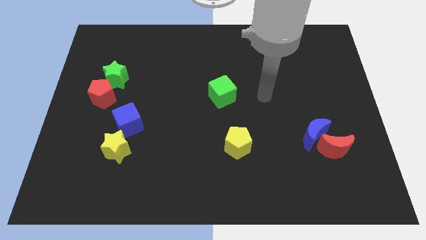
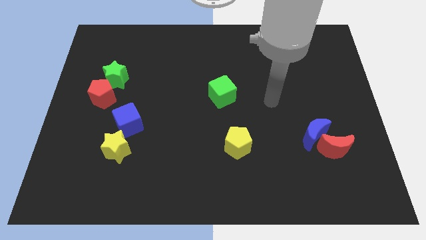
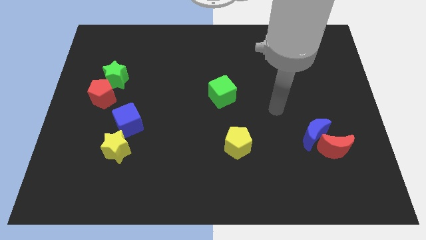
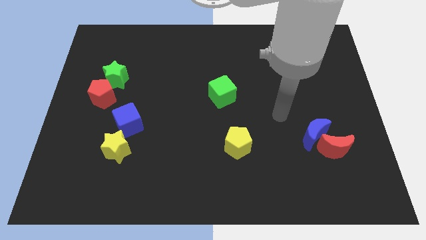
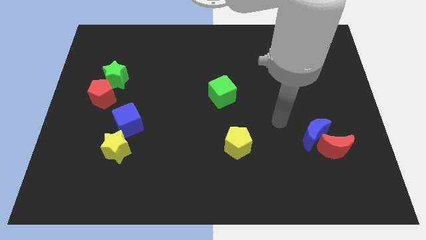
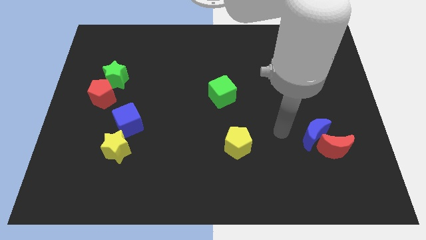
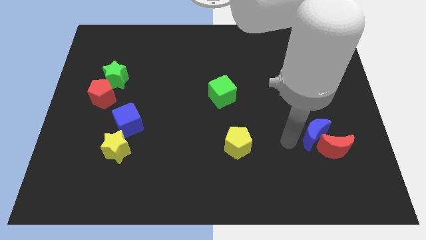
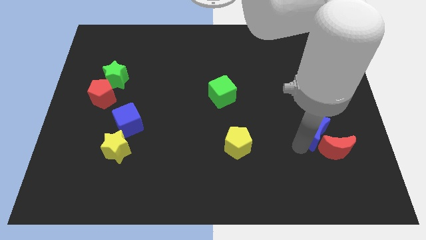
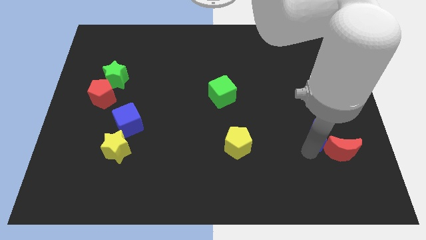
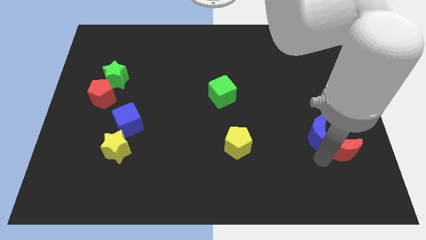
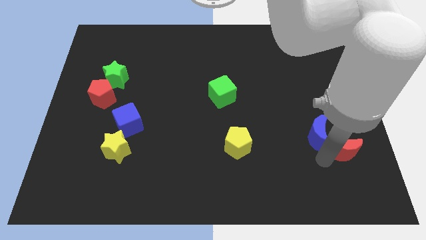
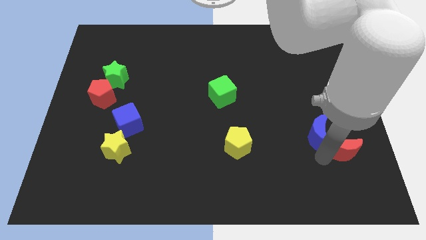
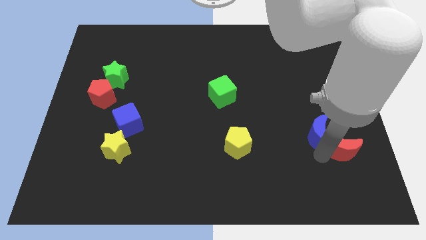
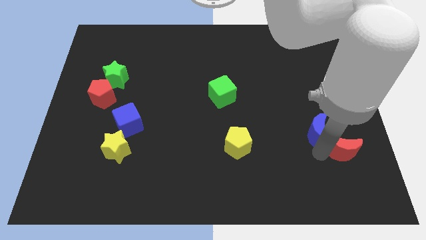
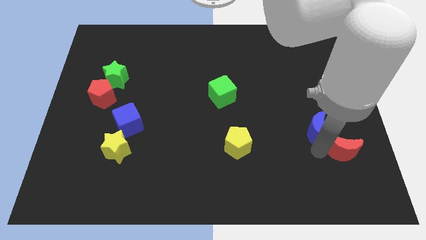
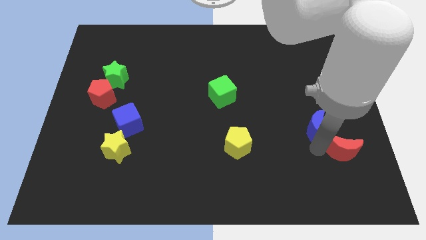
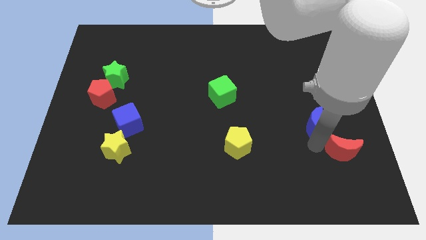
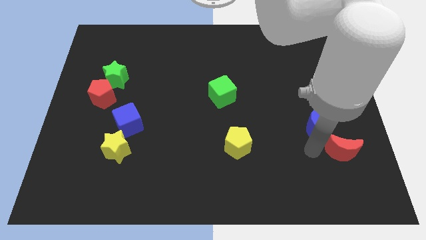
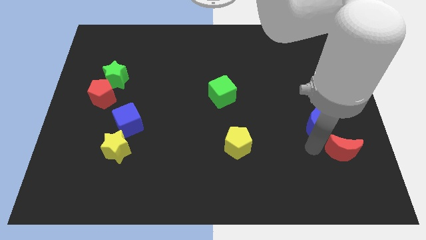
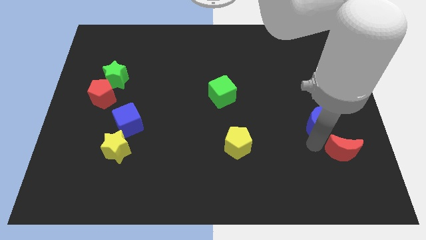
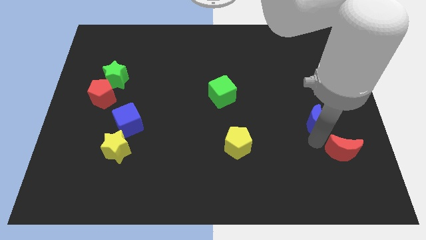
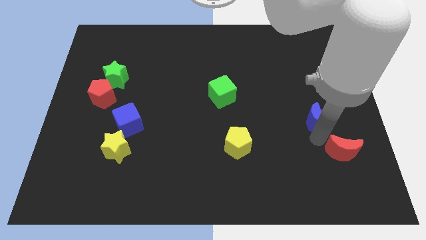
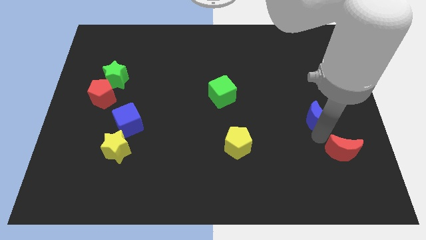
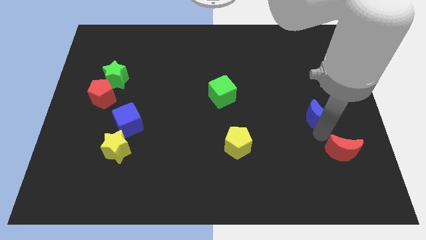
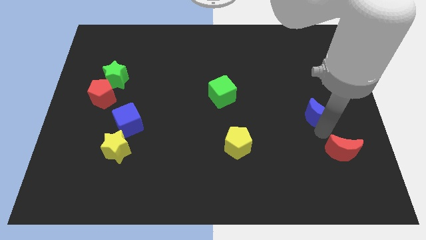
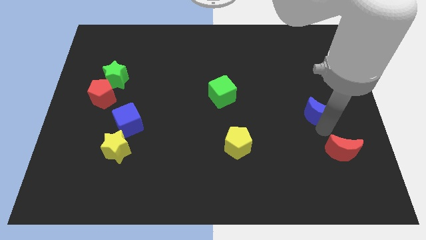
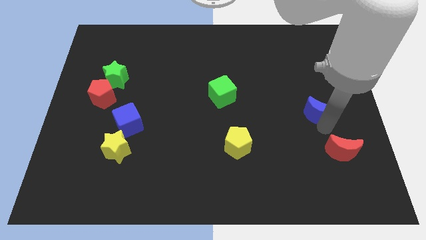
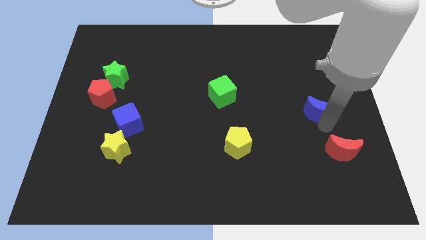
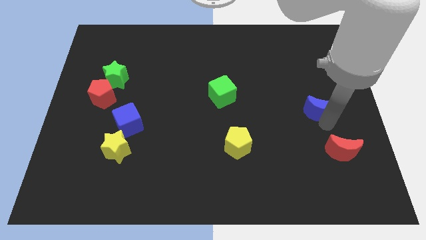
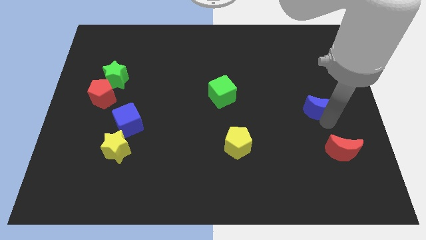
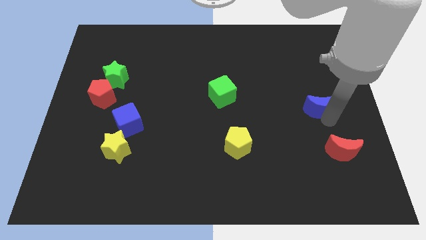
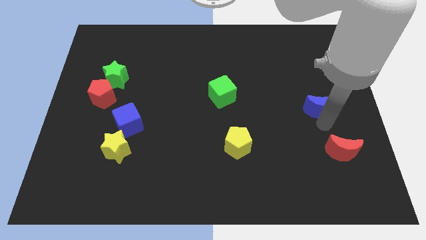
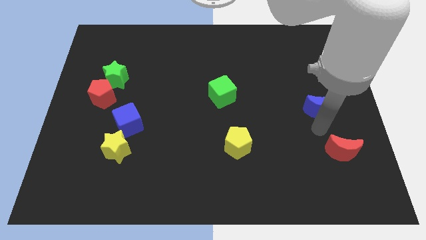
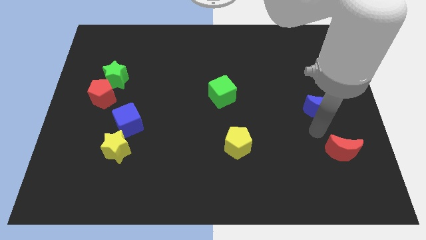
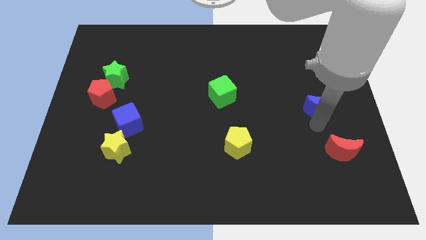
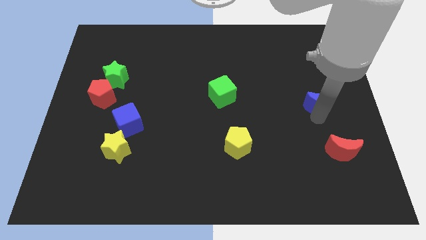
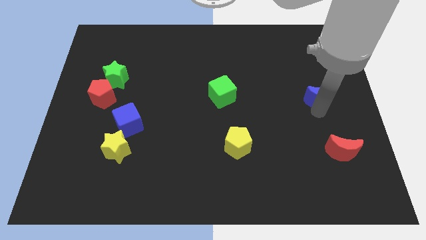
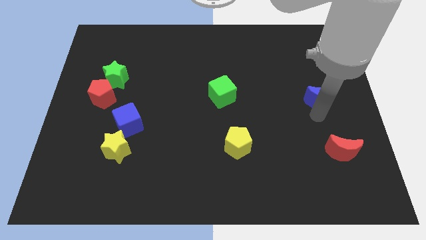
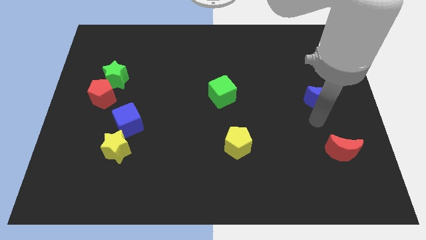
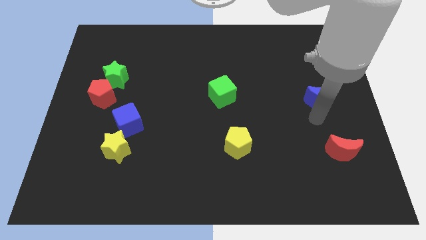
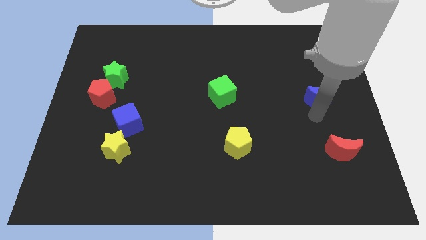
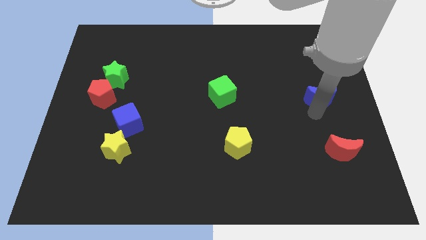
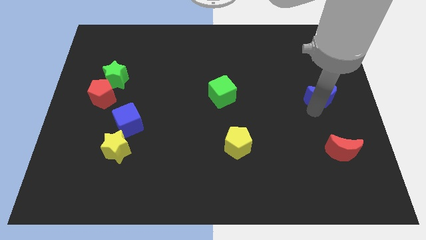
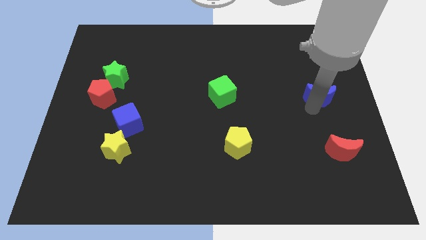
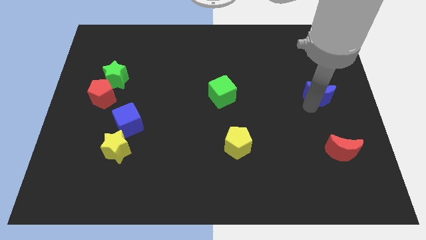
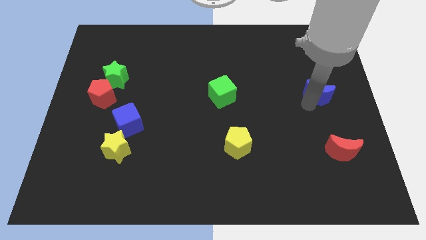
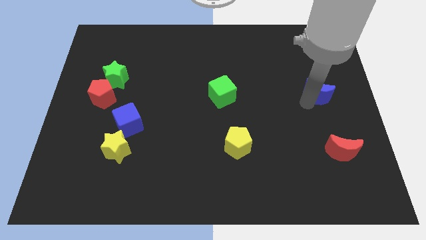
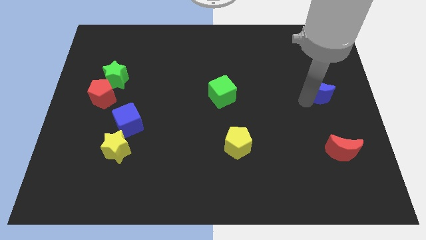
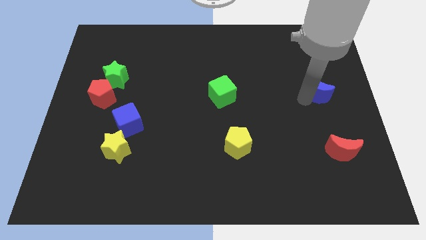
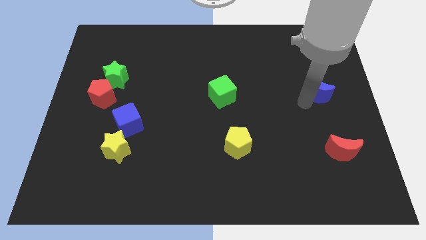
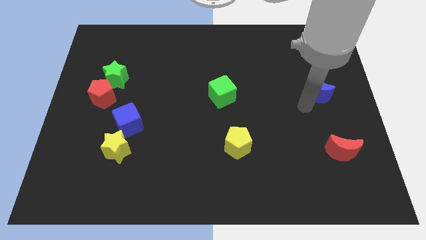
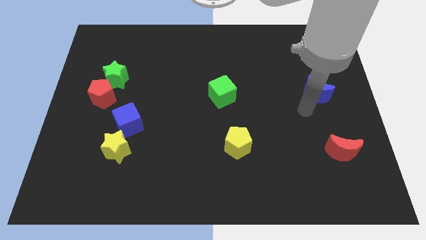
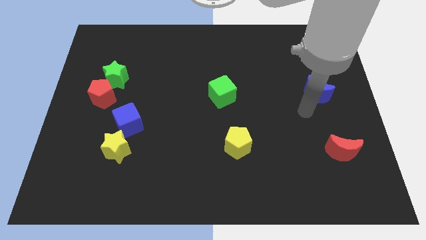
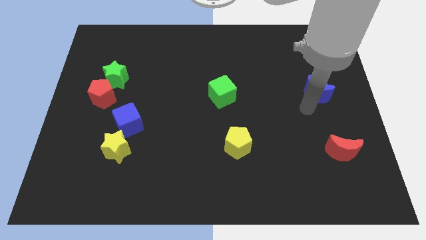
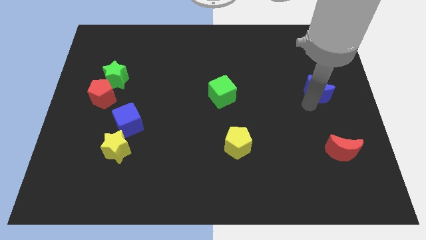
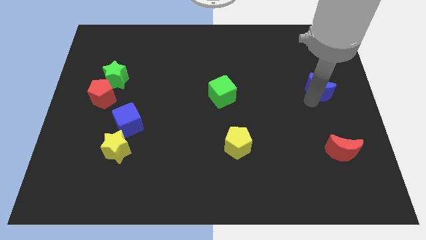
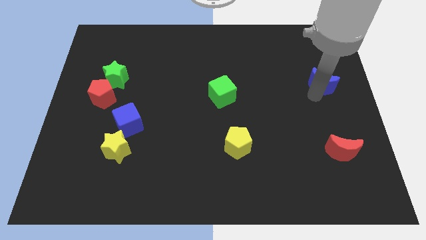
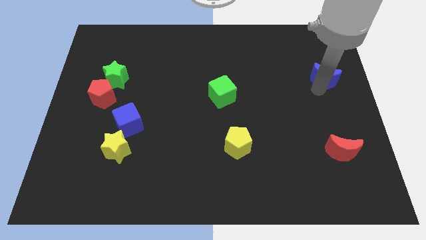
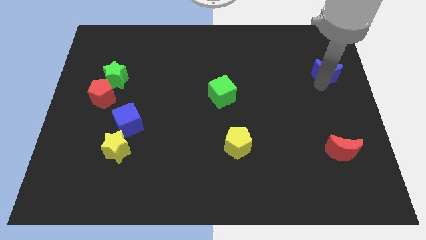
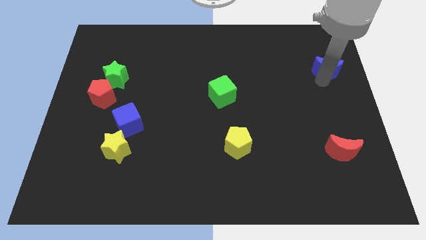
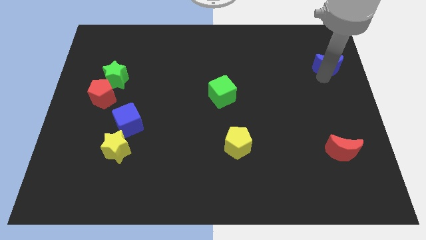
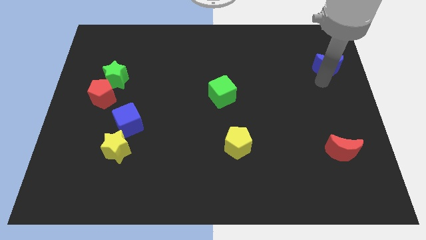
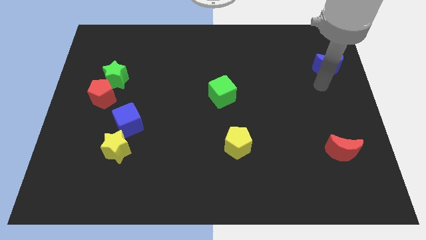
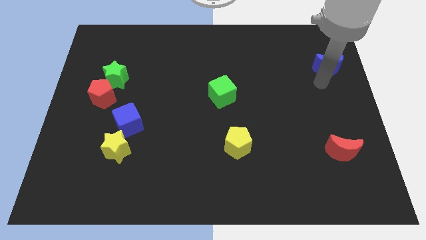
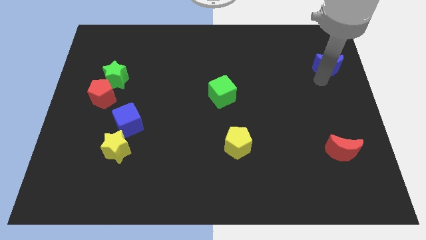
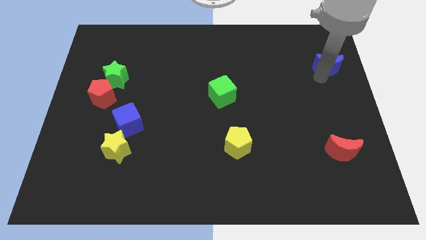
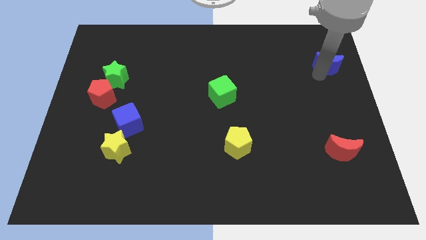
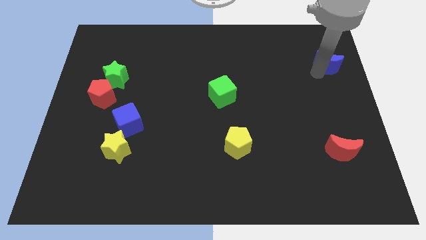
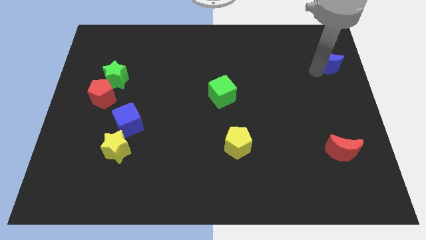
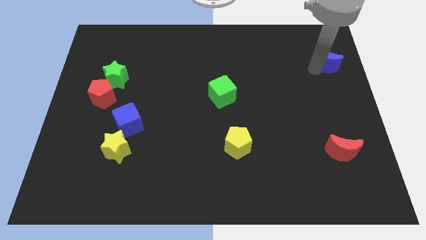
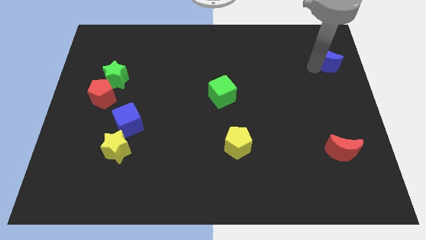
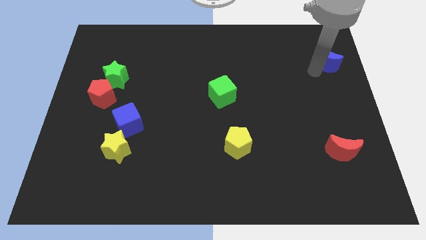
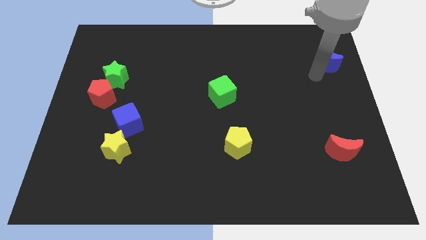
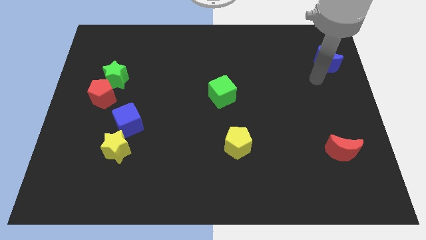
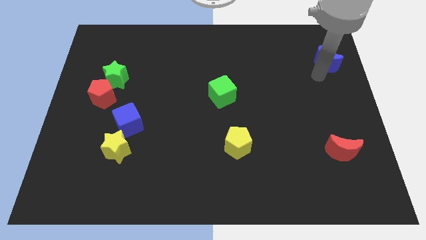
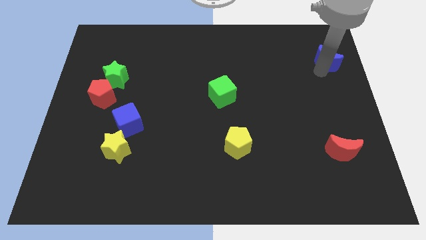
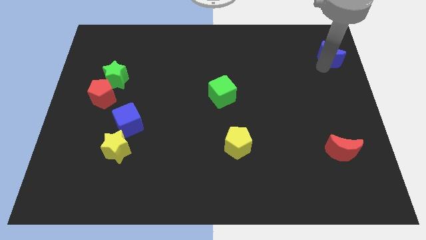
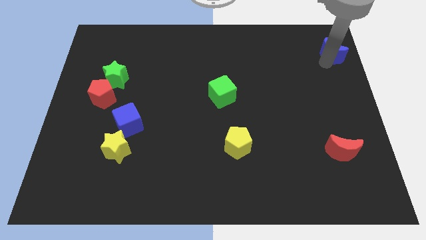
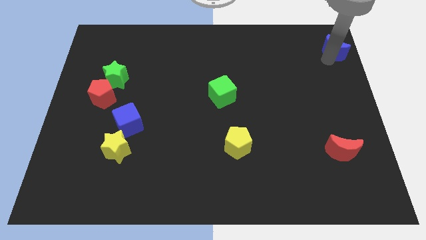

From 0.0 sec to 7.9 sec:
slide the blue moon to the upper right corner
